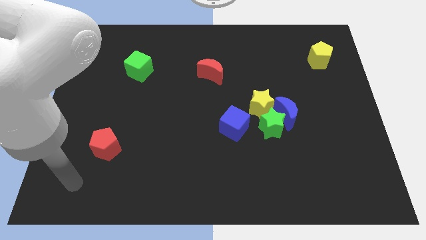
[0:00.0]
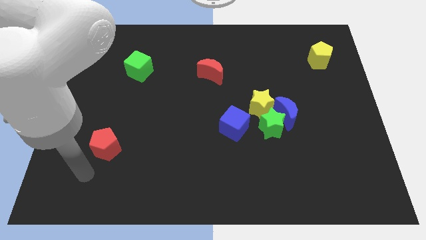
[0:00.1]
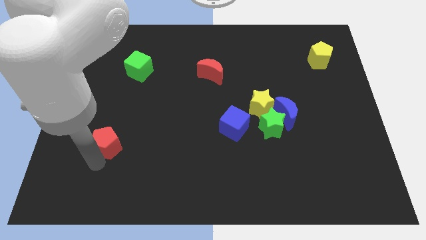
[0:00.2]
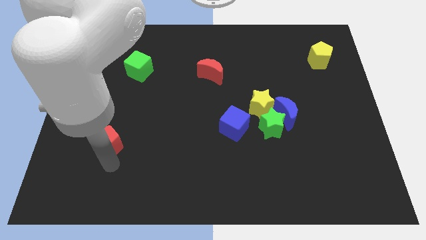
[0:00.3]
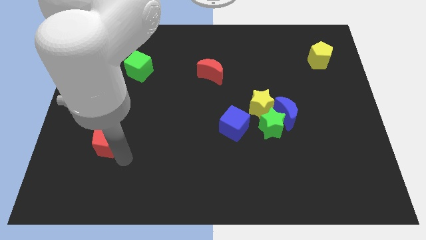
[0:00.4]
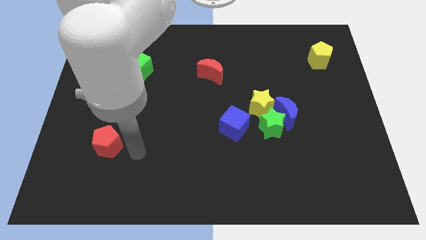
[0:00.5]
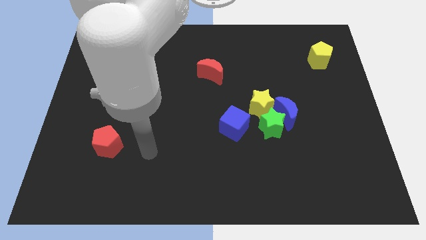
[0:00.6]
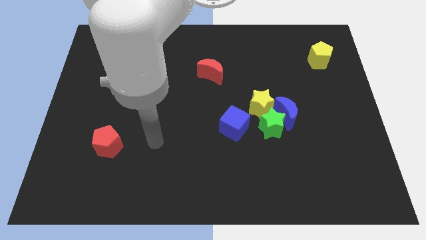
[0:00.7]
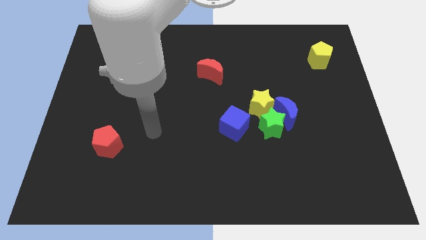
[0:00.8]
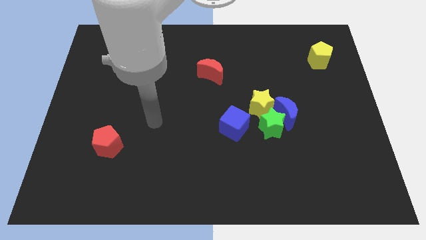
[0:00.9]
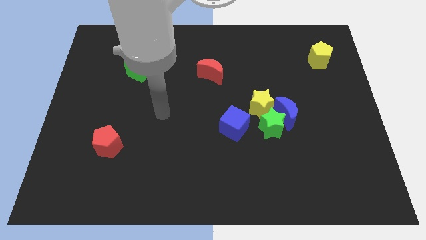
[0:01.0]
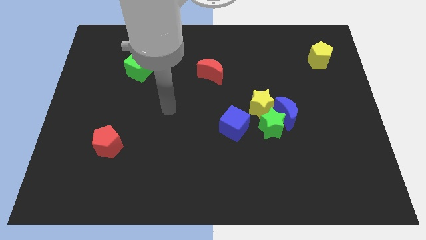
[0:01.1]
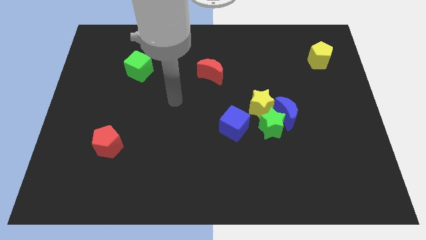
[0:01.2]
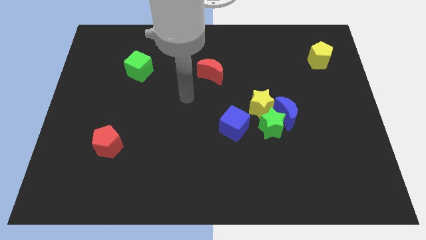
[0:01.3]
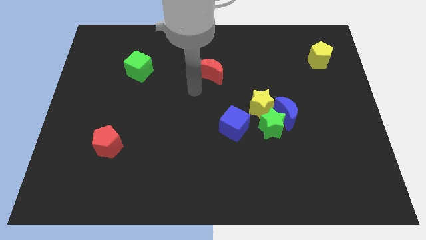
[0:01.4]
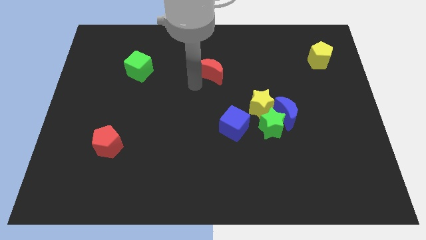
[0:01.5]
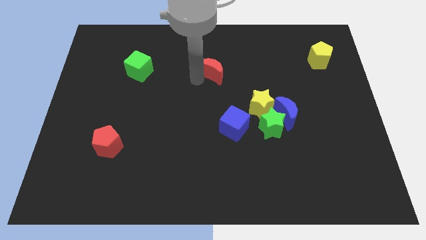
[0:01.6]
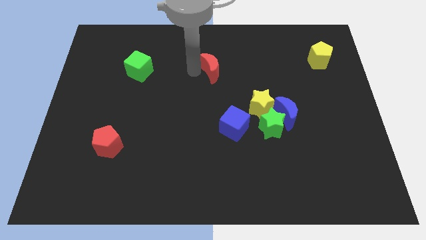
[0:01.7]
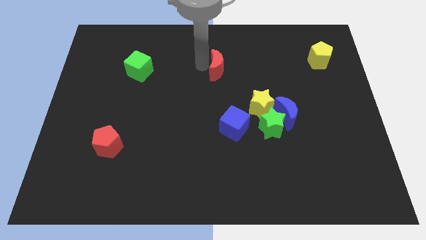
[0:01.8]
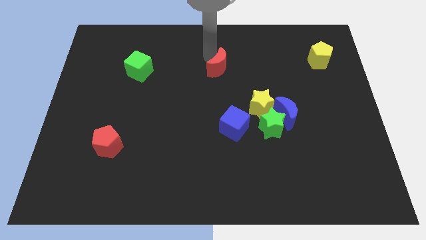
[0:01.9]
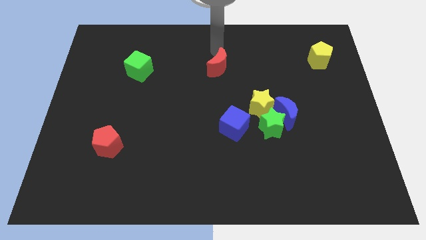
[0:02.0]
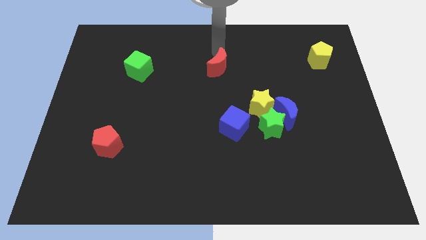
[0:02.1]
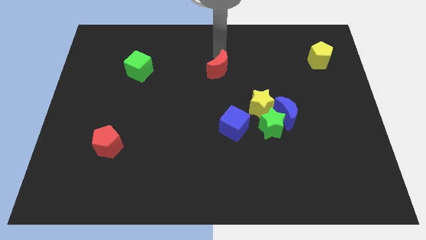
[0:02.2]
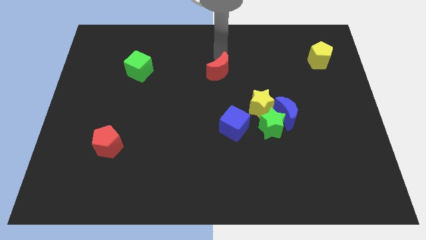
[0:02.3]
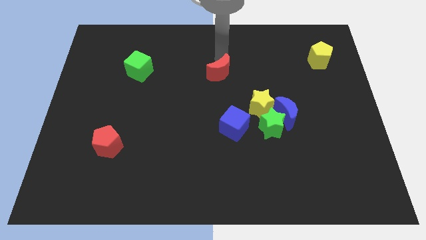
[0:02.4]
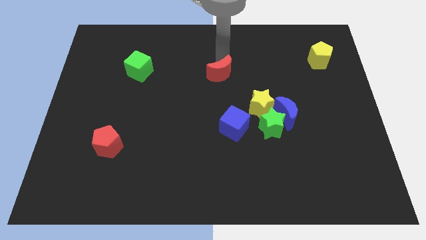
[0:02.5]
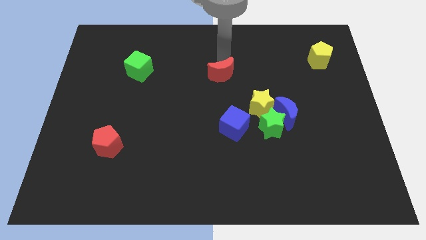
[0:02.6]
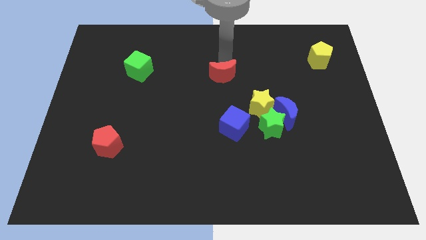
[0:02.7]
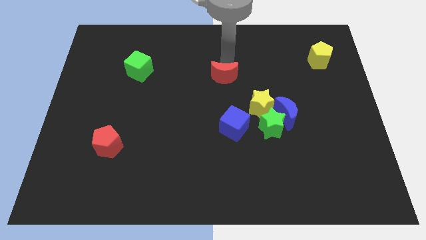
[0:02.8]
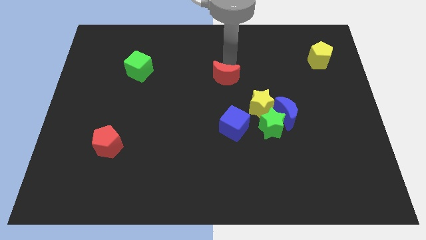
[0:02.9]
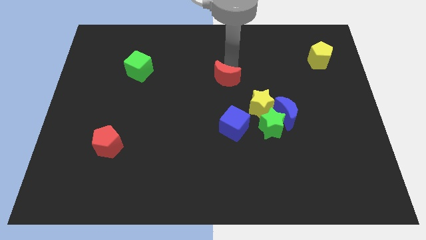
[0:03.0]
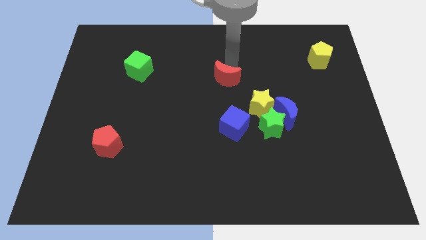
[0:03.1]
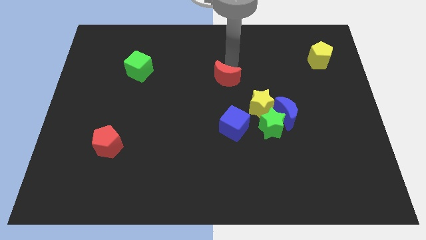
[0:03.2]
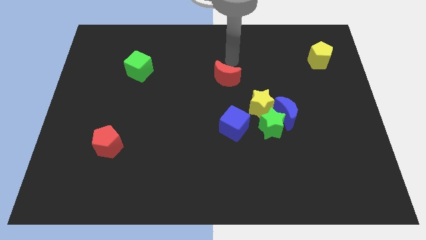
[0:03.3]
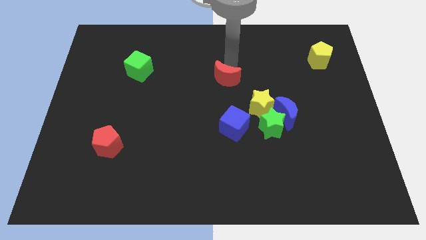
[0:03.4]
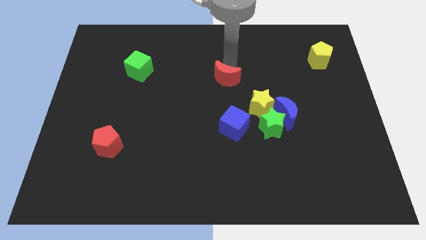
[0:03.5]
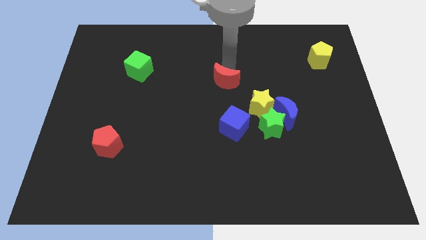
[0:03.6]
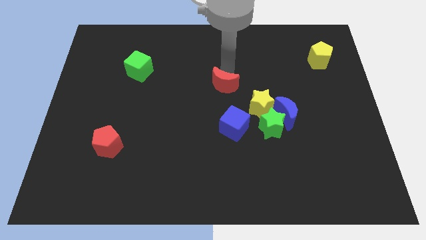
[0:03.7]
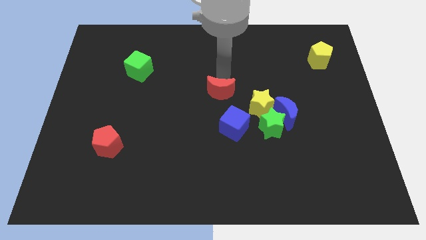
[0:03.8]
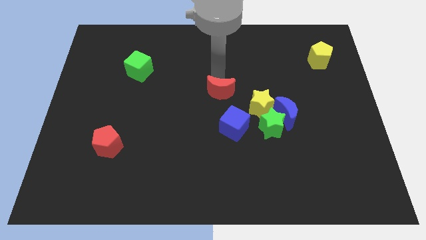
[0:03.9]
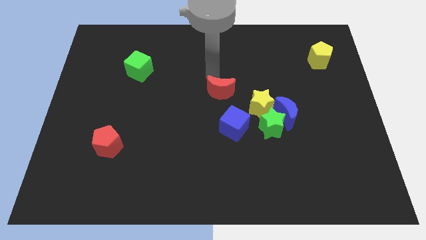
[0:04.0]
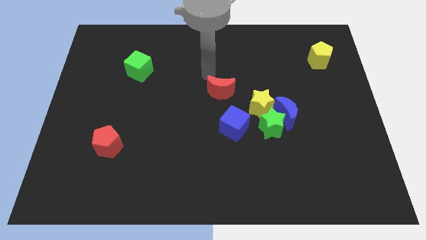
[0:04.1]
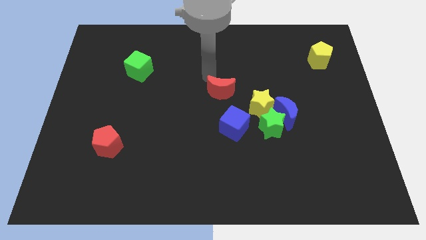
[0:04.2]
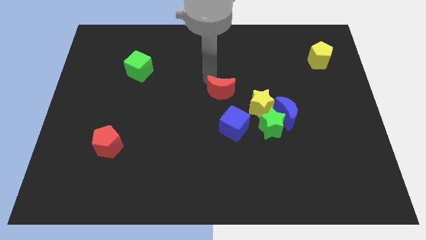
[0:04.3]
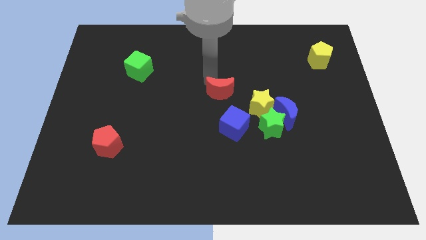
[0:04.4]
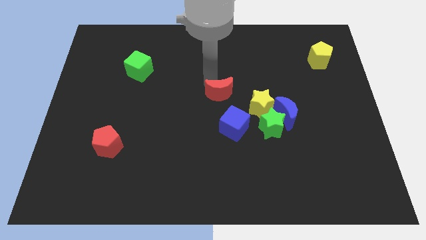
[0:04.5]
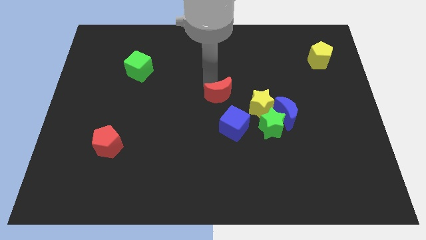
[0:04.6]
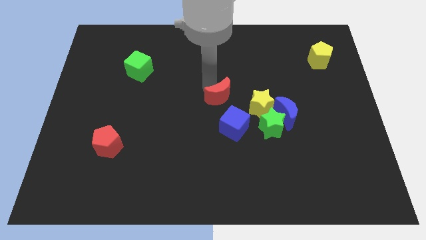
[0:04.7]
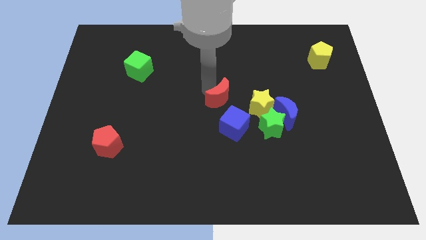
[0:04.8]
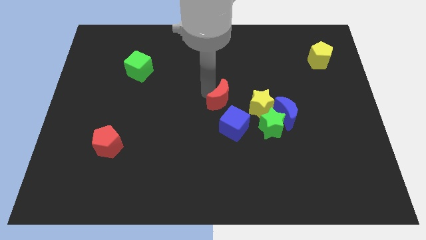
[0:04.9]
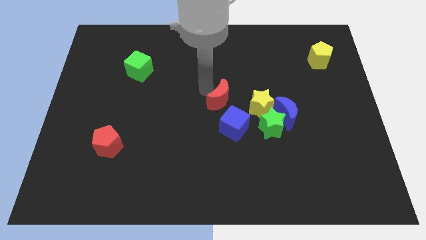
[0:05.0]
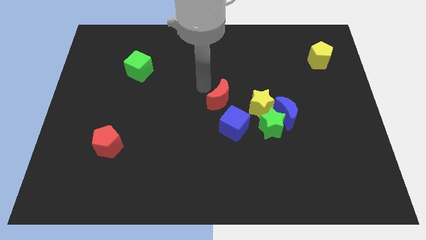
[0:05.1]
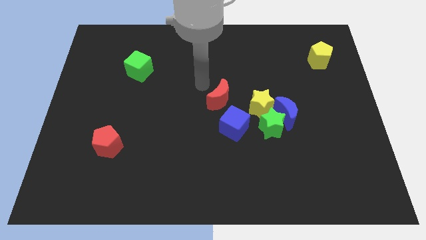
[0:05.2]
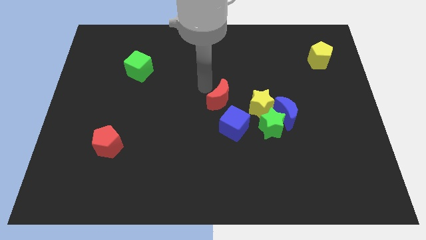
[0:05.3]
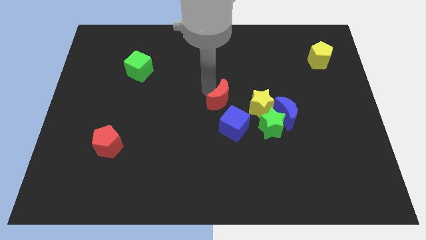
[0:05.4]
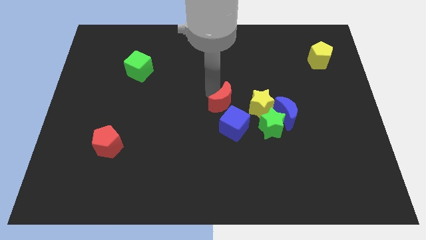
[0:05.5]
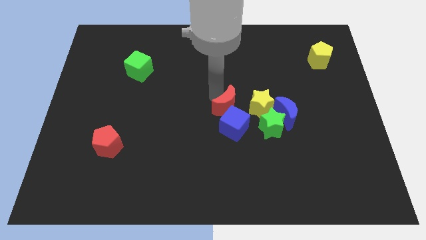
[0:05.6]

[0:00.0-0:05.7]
push the red moon to the blue cube

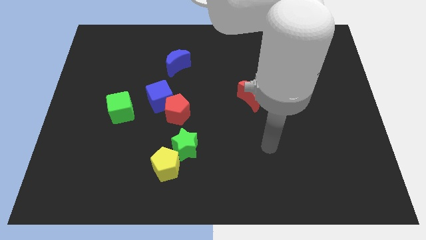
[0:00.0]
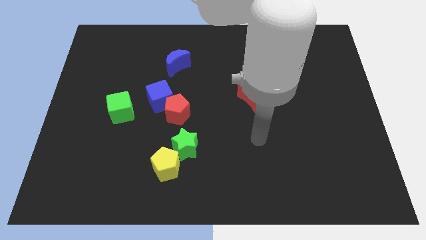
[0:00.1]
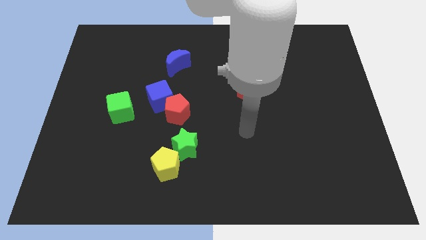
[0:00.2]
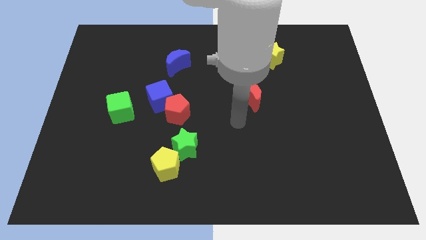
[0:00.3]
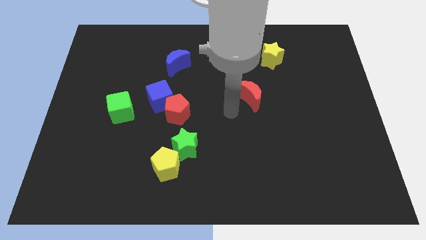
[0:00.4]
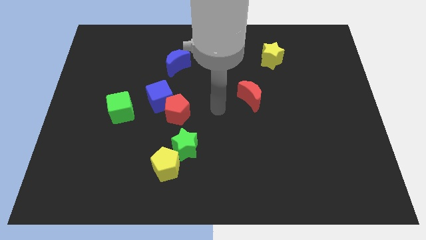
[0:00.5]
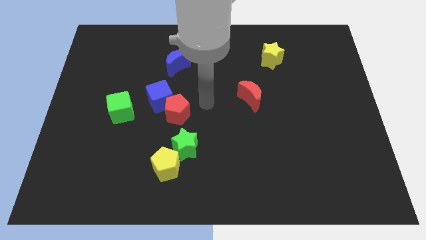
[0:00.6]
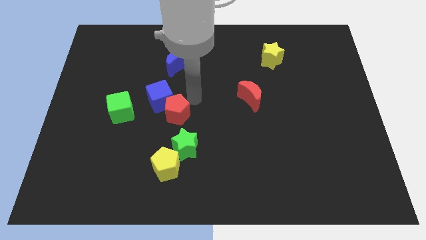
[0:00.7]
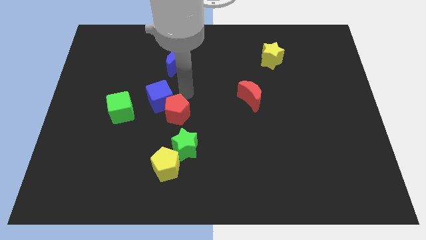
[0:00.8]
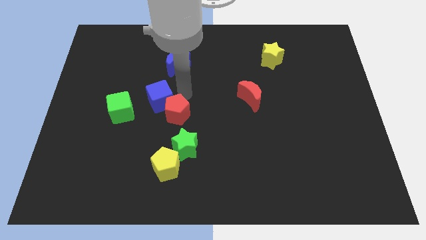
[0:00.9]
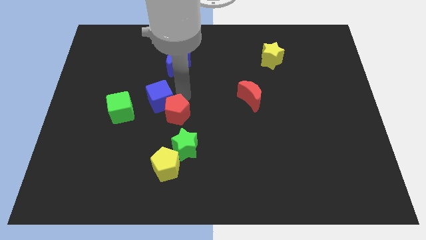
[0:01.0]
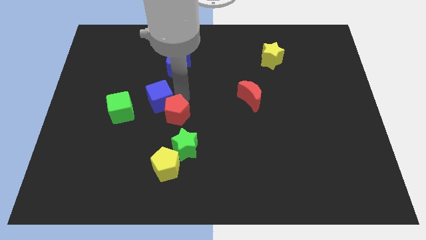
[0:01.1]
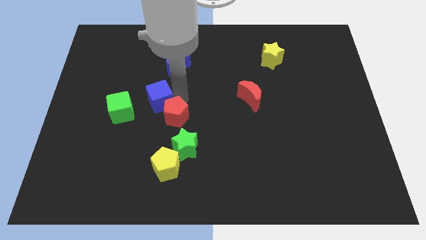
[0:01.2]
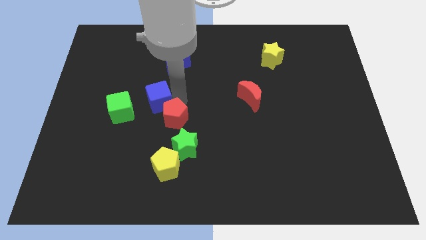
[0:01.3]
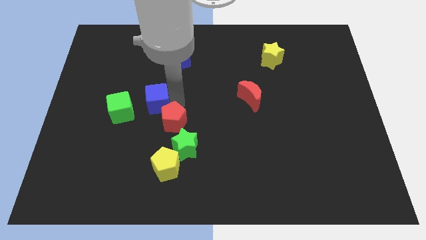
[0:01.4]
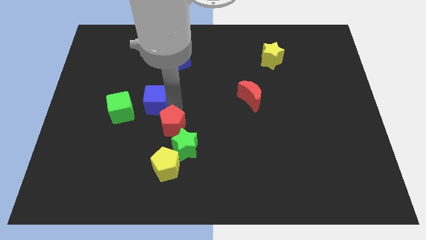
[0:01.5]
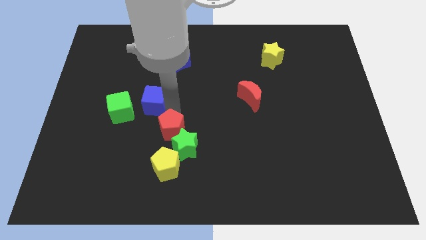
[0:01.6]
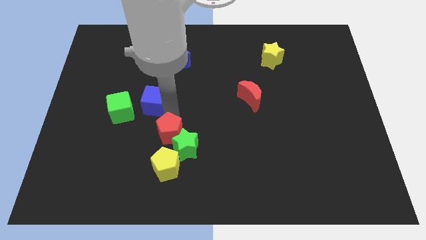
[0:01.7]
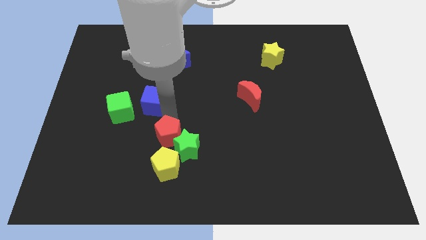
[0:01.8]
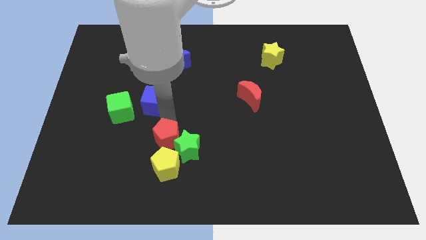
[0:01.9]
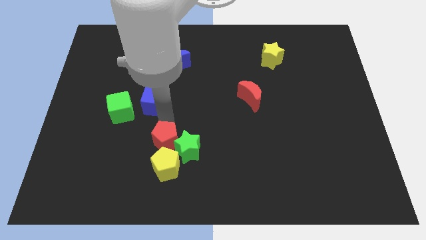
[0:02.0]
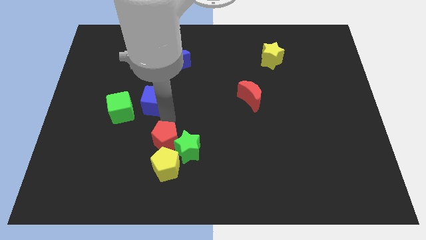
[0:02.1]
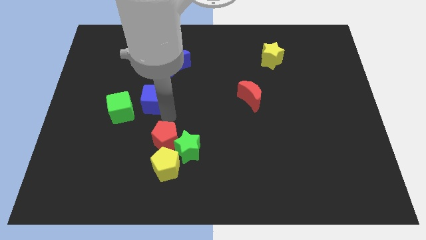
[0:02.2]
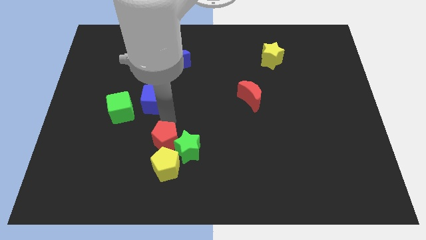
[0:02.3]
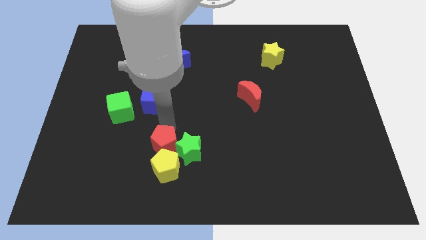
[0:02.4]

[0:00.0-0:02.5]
move the red pentagon to the yellow pentagon
